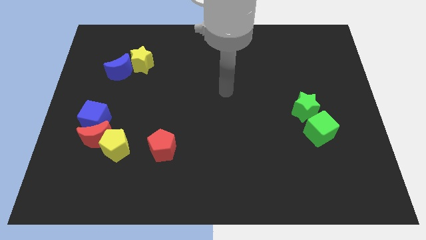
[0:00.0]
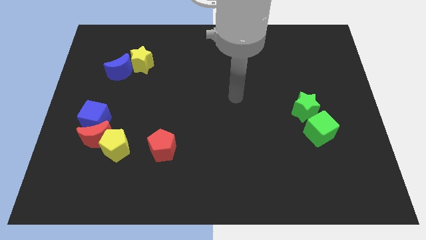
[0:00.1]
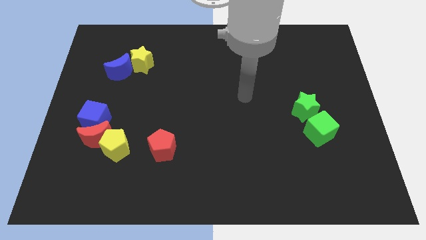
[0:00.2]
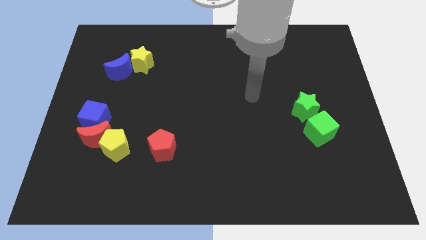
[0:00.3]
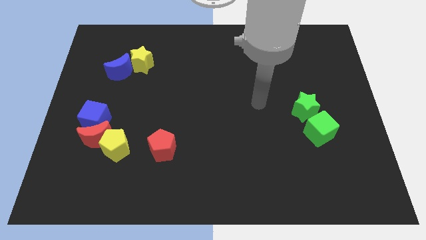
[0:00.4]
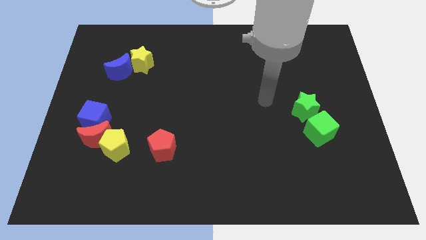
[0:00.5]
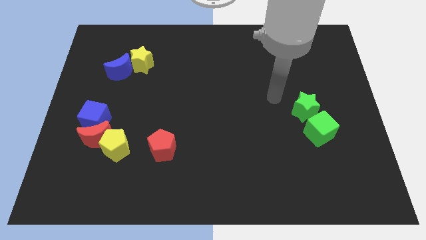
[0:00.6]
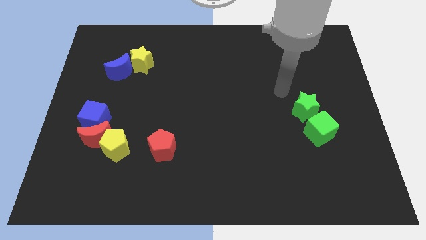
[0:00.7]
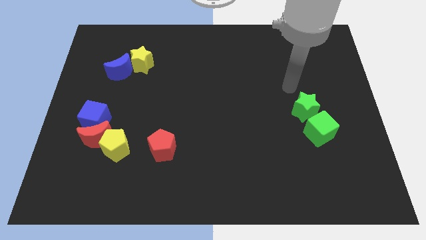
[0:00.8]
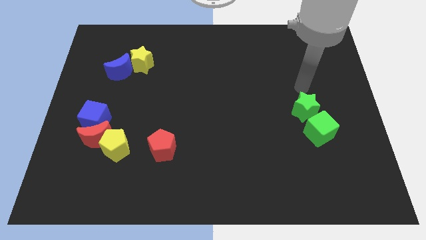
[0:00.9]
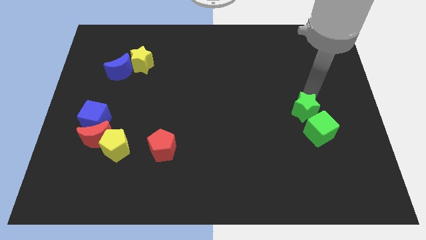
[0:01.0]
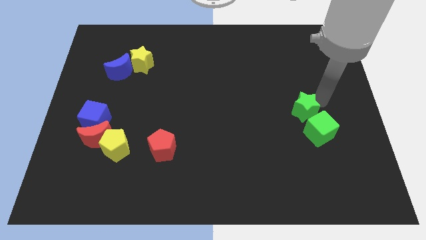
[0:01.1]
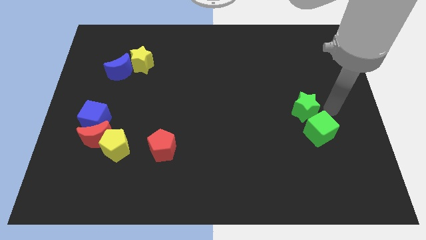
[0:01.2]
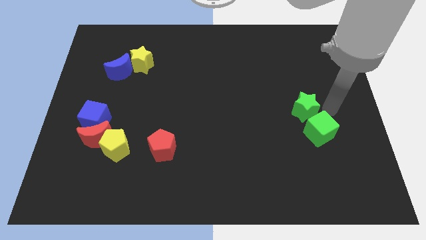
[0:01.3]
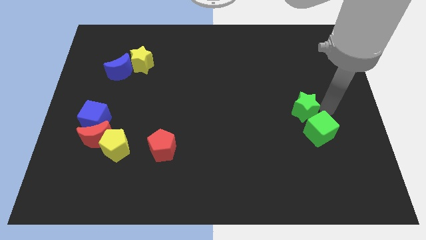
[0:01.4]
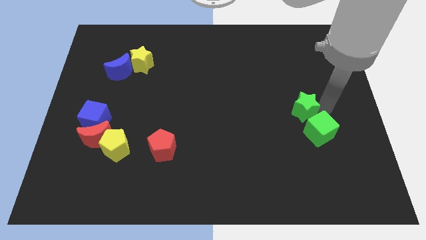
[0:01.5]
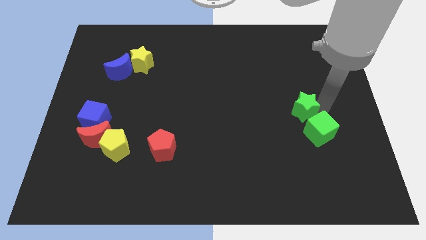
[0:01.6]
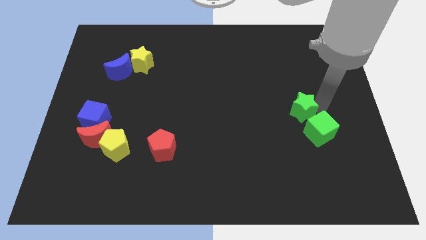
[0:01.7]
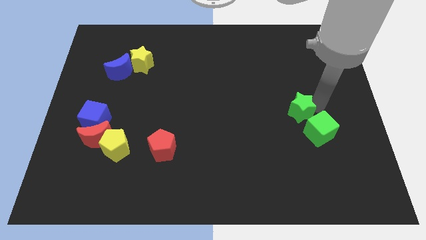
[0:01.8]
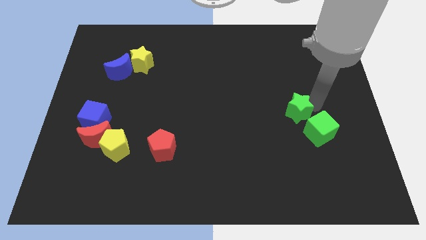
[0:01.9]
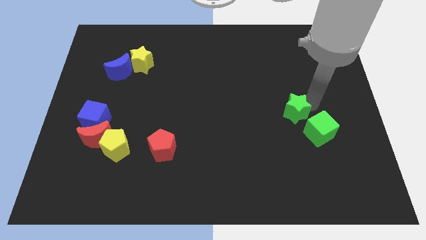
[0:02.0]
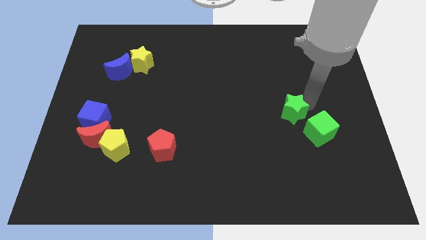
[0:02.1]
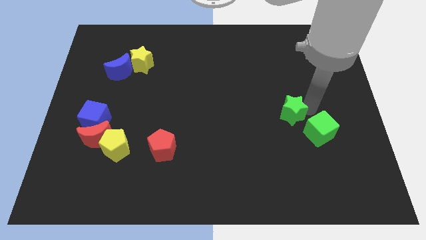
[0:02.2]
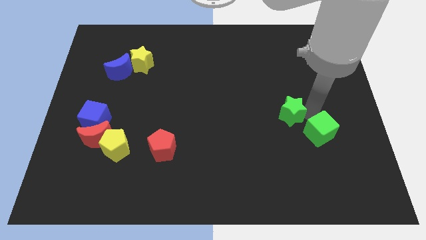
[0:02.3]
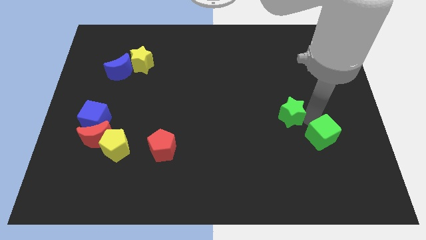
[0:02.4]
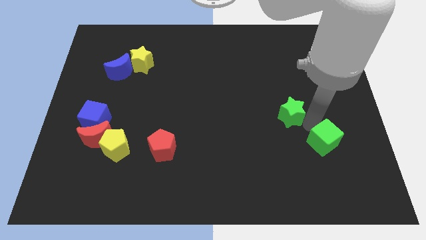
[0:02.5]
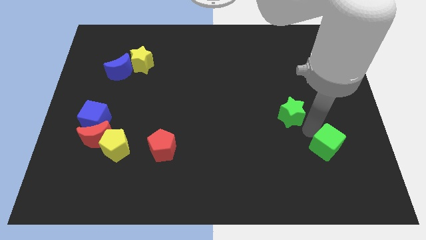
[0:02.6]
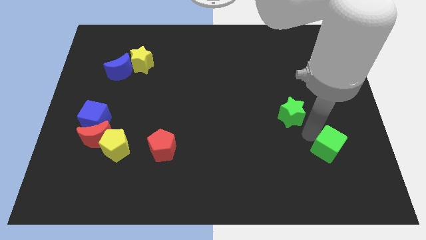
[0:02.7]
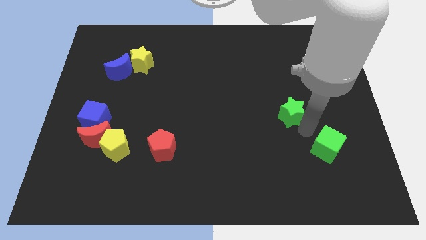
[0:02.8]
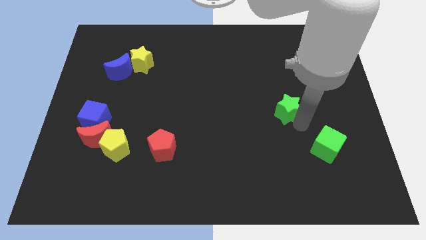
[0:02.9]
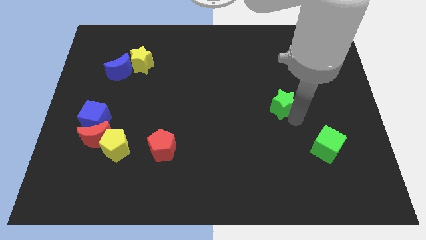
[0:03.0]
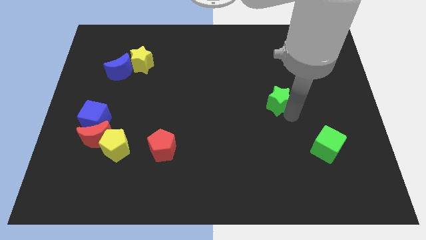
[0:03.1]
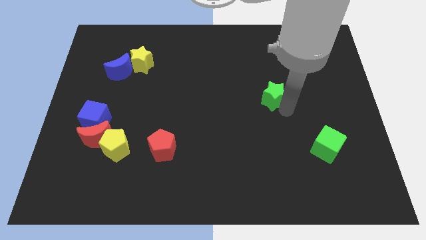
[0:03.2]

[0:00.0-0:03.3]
slightly move the green star upwards and left diagonally

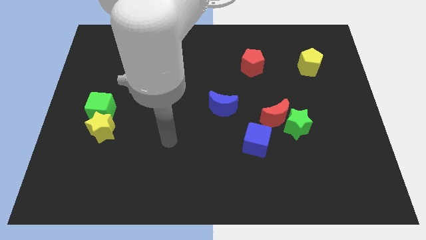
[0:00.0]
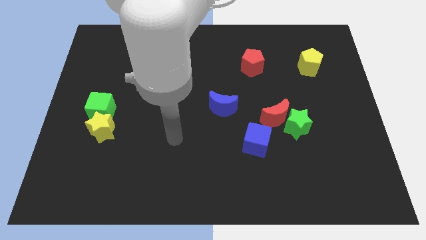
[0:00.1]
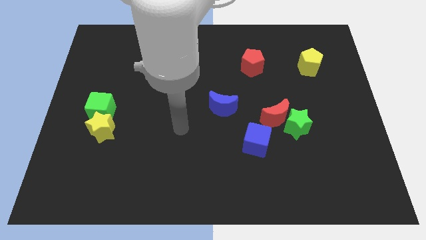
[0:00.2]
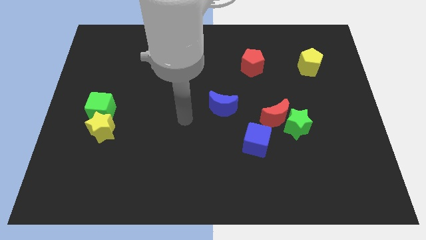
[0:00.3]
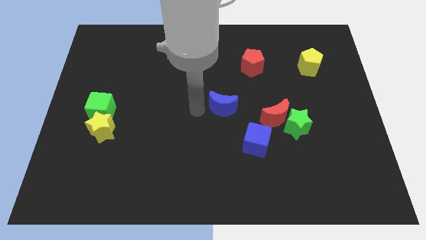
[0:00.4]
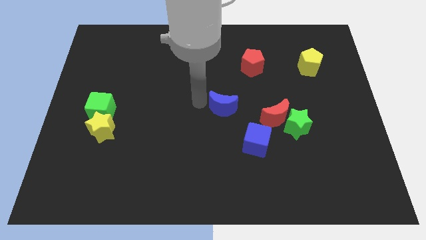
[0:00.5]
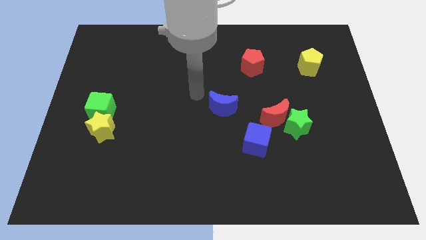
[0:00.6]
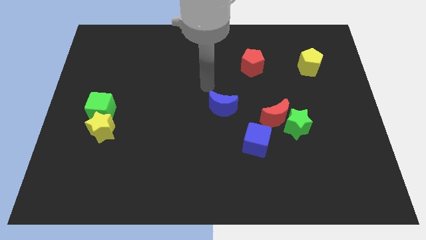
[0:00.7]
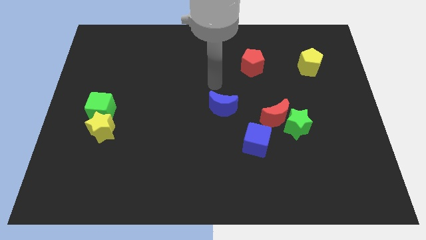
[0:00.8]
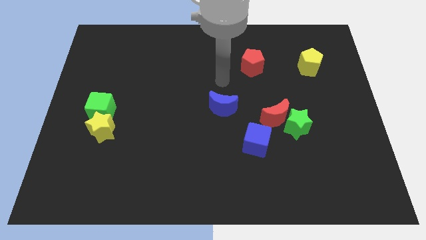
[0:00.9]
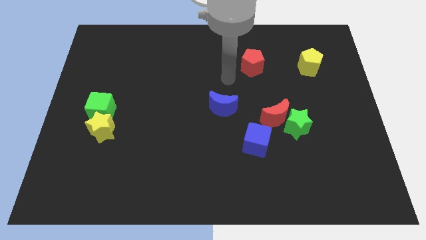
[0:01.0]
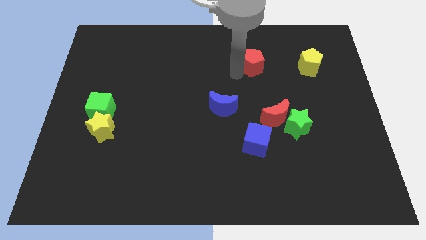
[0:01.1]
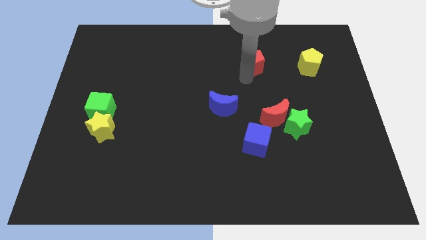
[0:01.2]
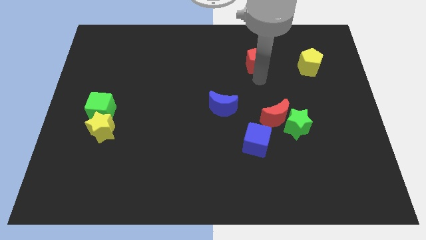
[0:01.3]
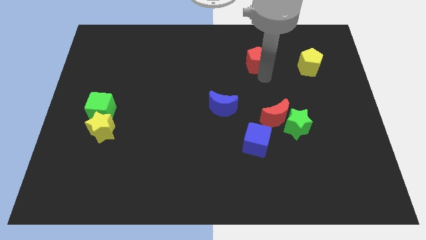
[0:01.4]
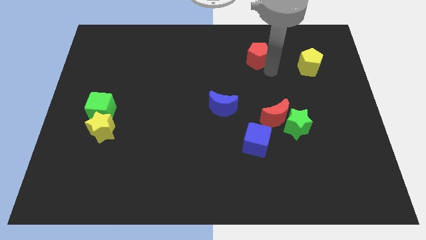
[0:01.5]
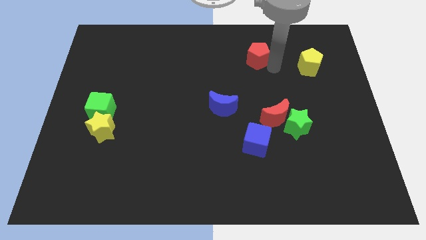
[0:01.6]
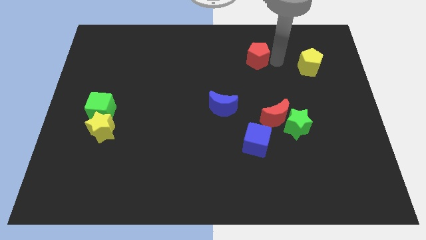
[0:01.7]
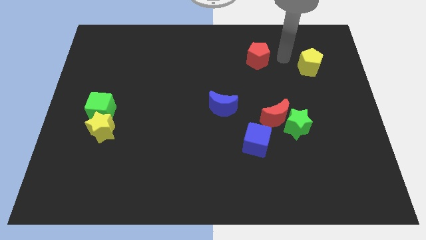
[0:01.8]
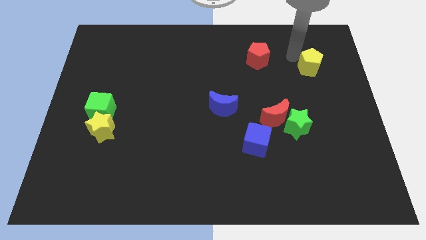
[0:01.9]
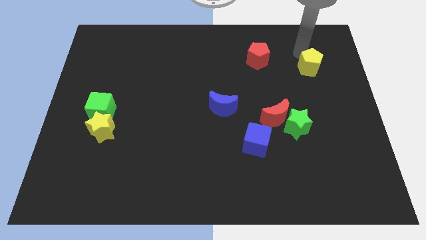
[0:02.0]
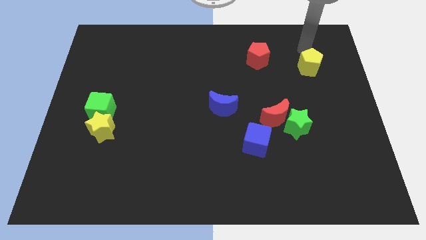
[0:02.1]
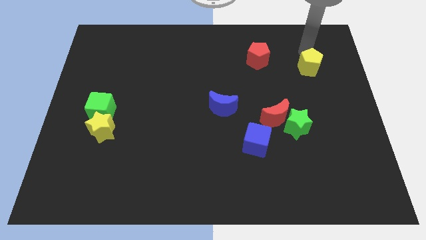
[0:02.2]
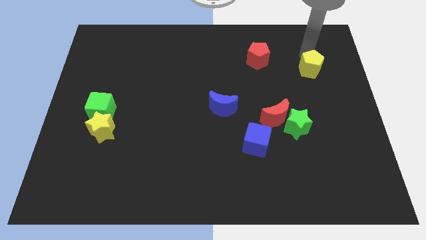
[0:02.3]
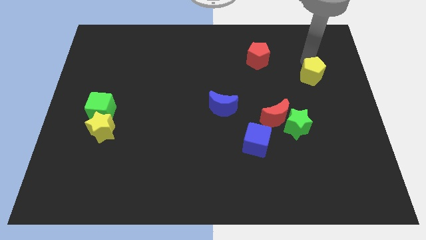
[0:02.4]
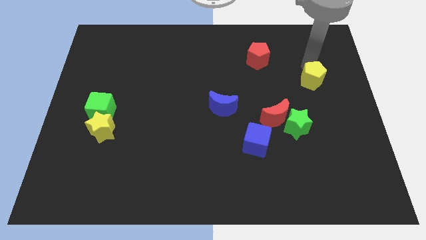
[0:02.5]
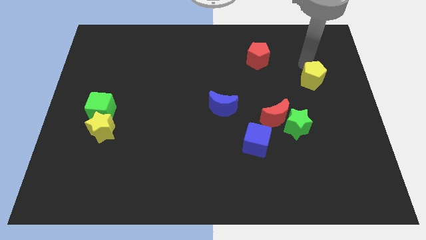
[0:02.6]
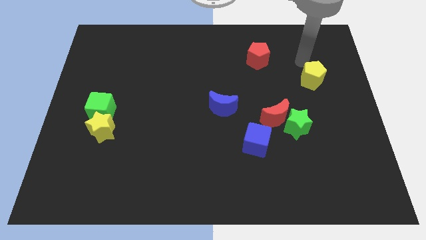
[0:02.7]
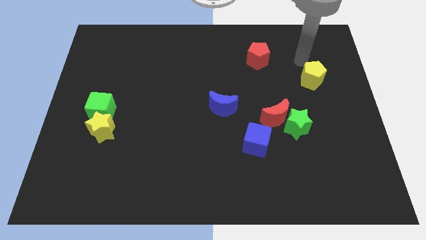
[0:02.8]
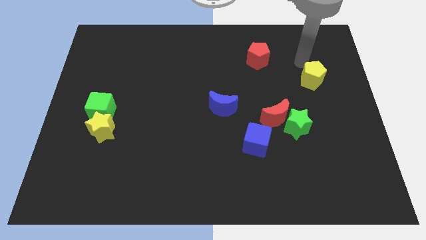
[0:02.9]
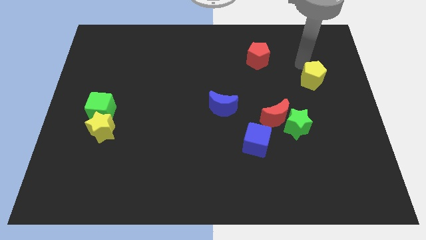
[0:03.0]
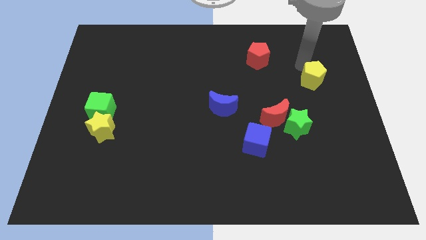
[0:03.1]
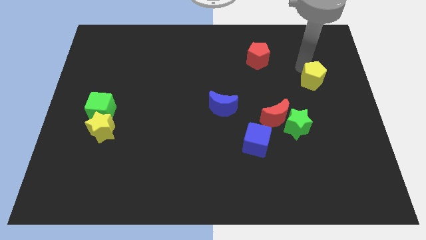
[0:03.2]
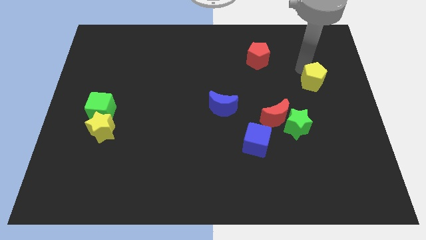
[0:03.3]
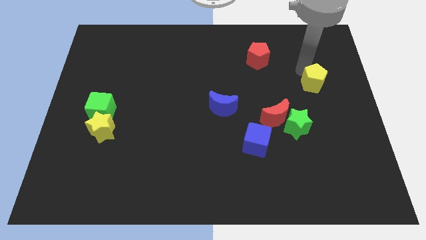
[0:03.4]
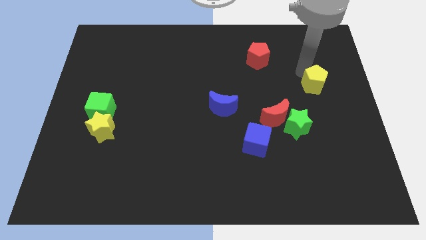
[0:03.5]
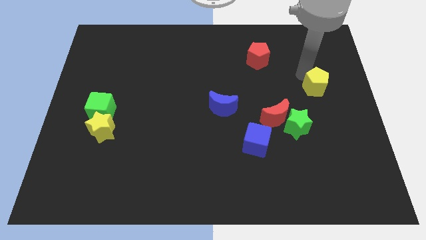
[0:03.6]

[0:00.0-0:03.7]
move the yellow pentagon slightly downwards

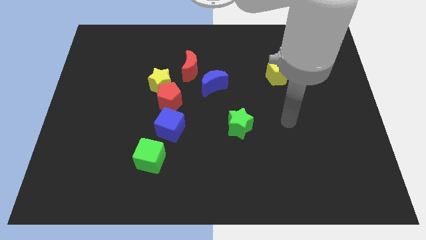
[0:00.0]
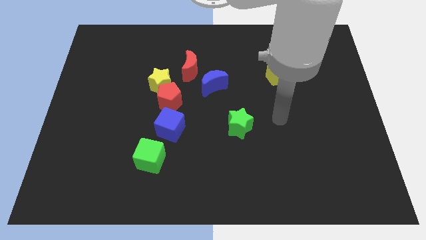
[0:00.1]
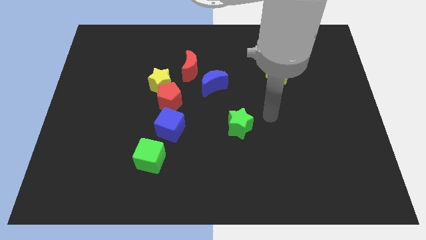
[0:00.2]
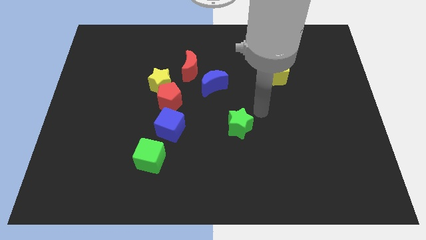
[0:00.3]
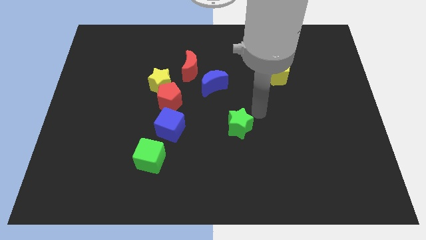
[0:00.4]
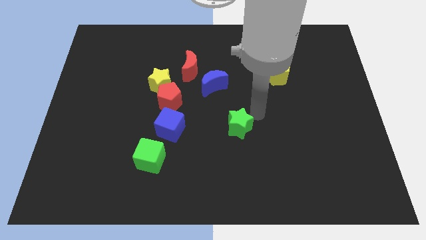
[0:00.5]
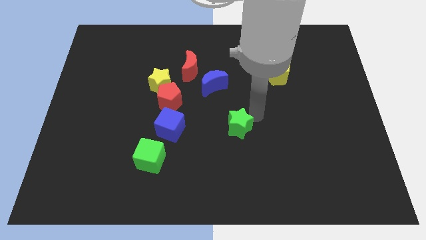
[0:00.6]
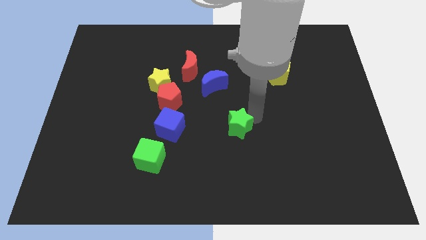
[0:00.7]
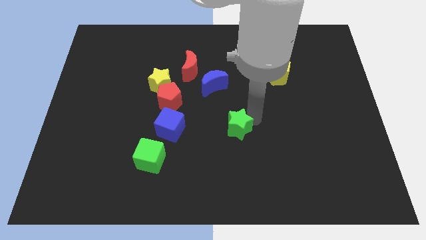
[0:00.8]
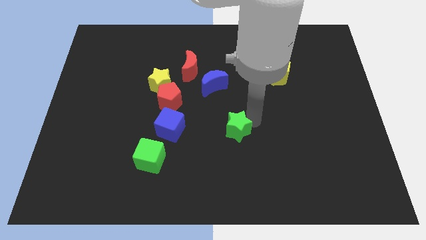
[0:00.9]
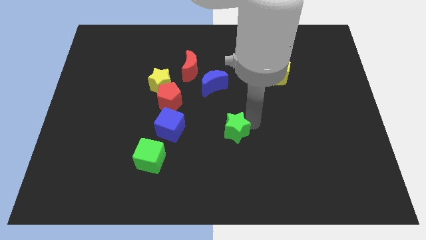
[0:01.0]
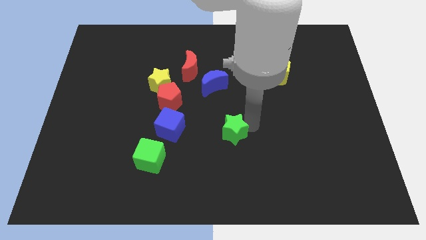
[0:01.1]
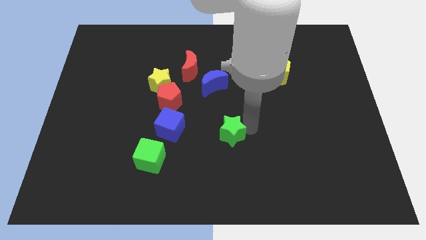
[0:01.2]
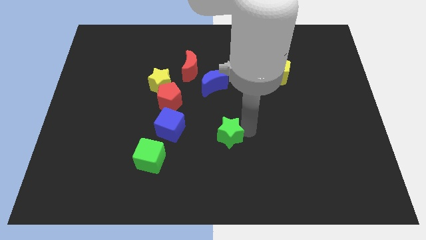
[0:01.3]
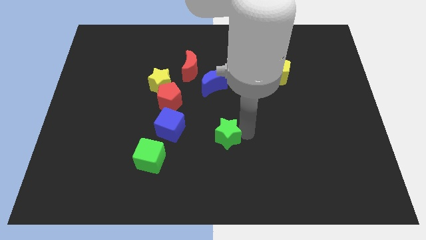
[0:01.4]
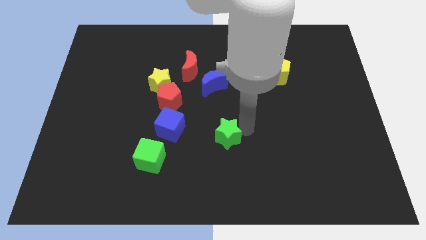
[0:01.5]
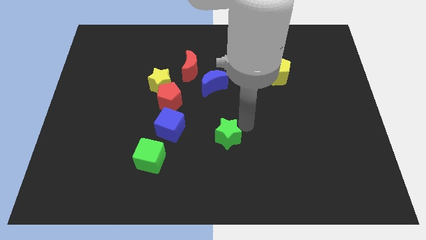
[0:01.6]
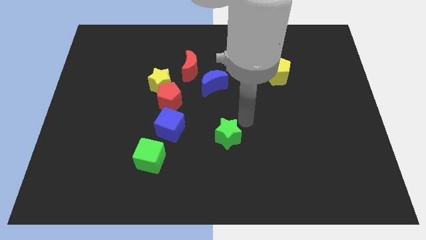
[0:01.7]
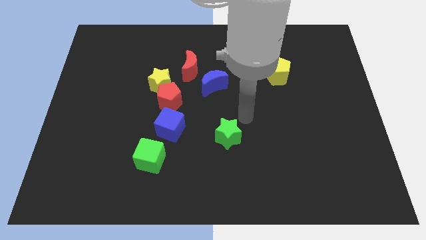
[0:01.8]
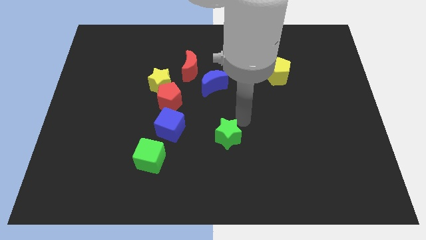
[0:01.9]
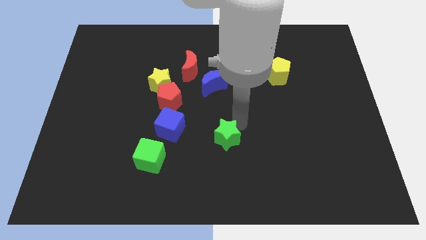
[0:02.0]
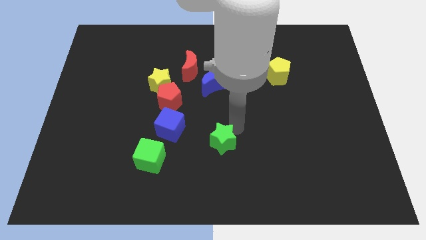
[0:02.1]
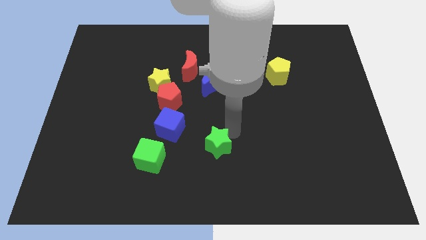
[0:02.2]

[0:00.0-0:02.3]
move the green star somewhat down and left diagonally
